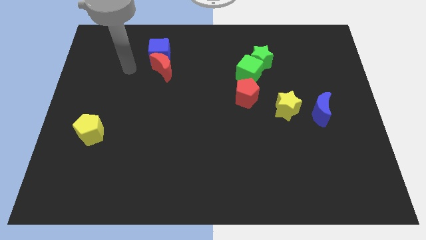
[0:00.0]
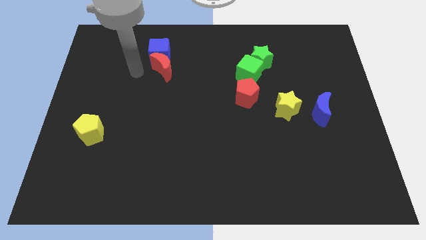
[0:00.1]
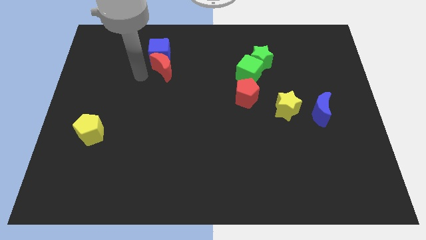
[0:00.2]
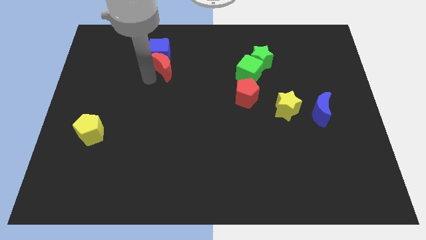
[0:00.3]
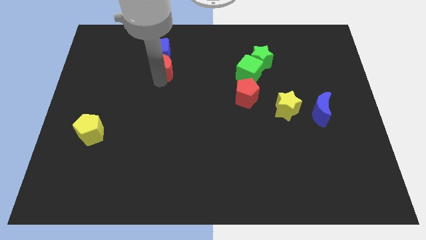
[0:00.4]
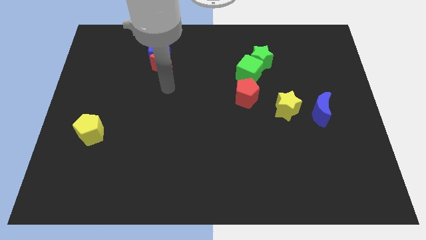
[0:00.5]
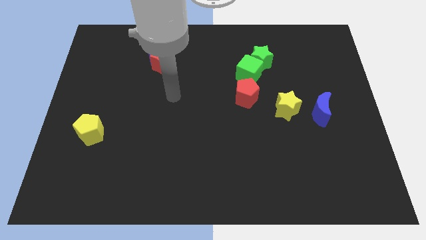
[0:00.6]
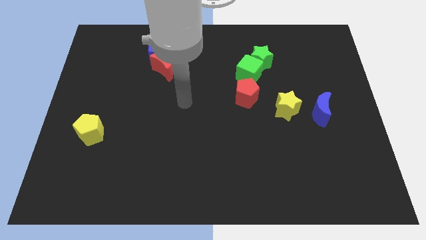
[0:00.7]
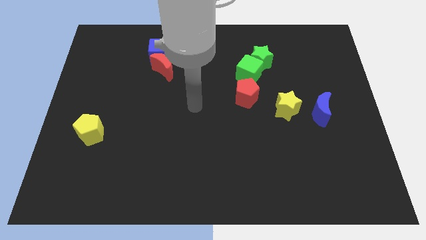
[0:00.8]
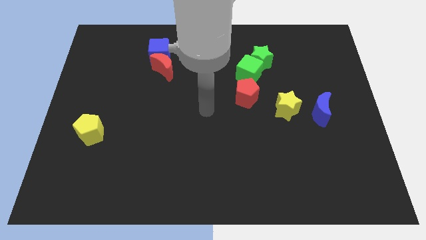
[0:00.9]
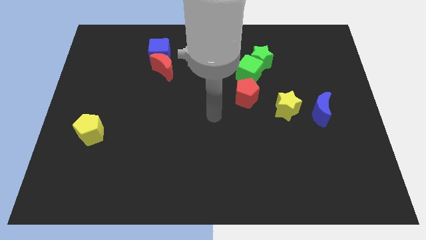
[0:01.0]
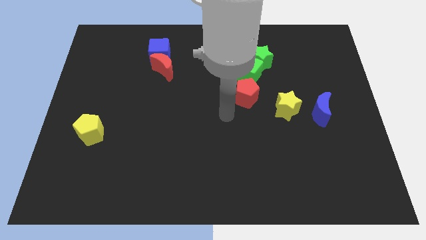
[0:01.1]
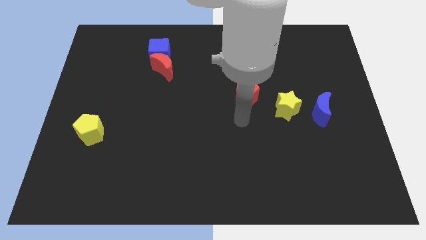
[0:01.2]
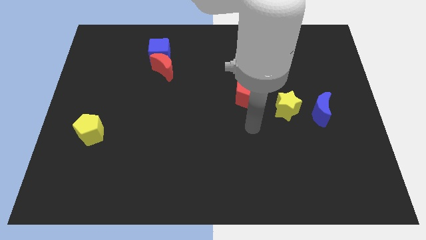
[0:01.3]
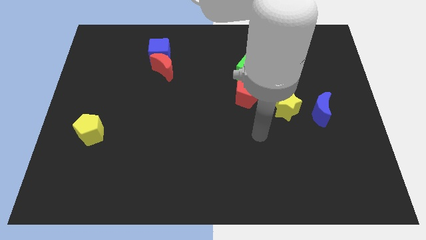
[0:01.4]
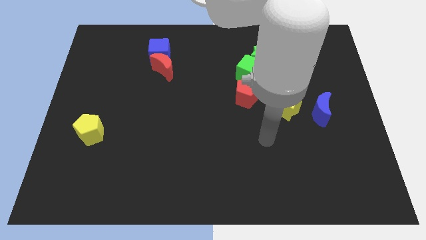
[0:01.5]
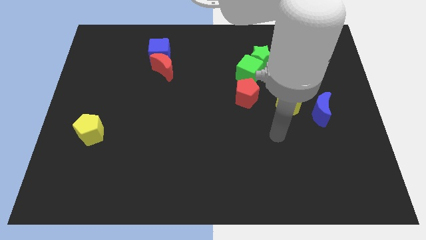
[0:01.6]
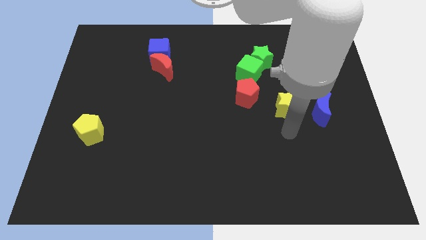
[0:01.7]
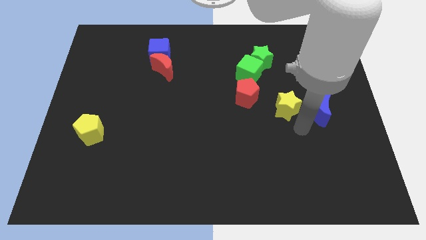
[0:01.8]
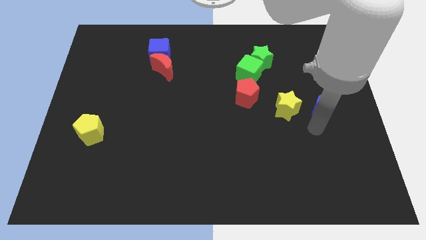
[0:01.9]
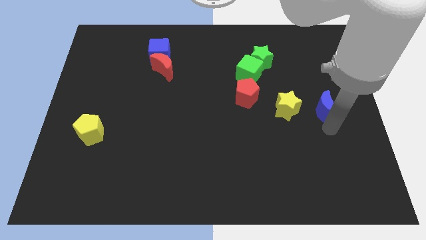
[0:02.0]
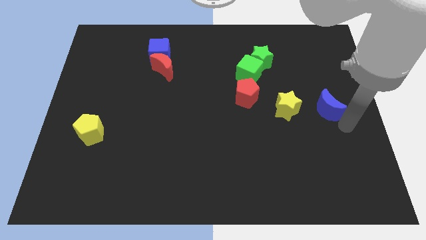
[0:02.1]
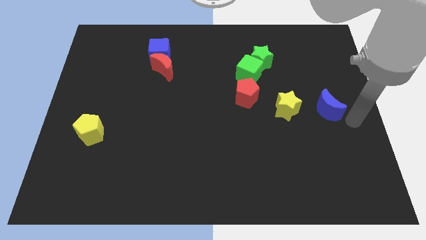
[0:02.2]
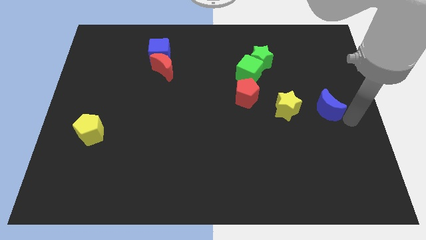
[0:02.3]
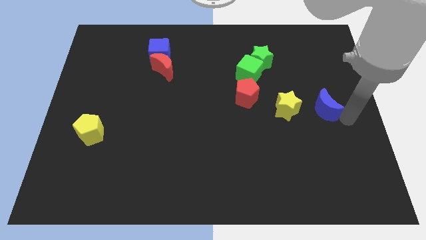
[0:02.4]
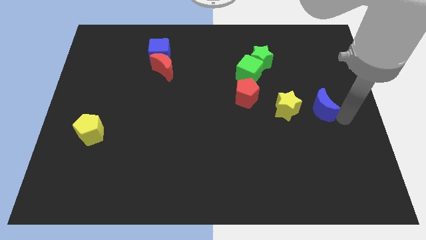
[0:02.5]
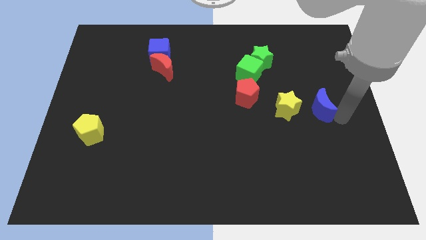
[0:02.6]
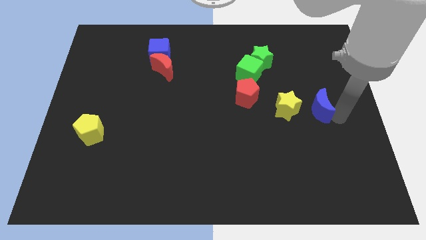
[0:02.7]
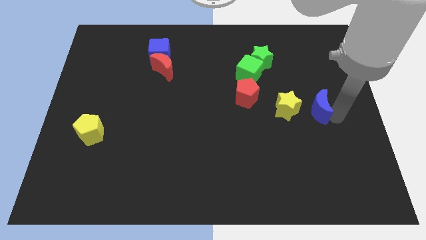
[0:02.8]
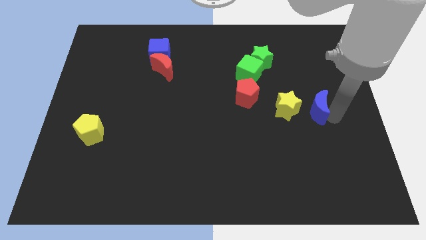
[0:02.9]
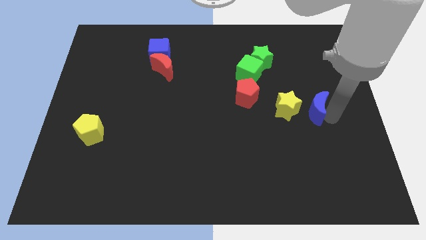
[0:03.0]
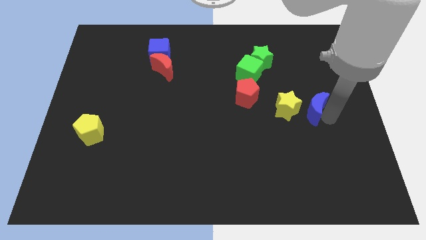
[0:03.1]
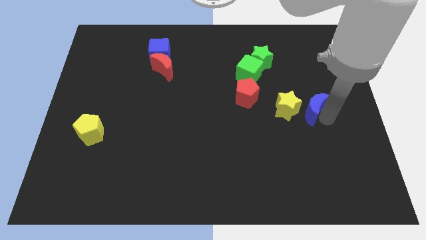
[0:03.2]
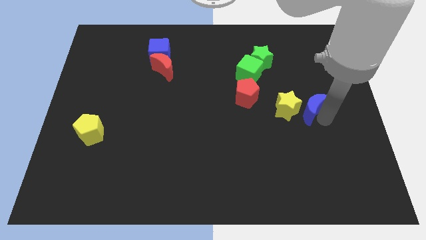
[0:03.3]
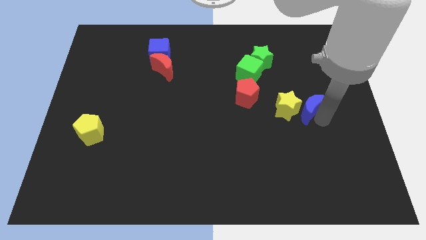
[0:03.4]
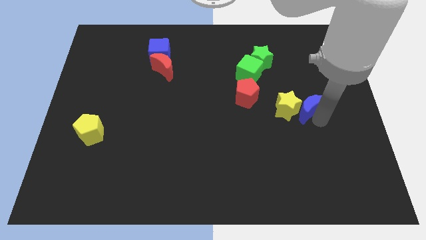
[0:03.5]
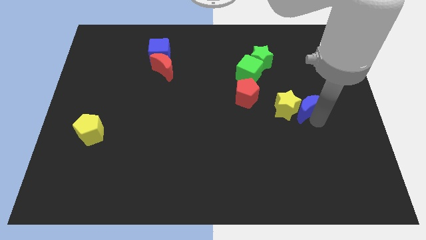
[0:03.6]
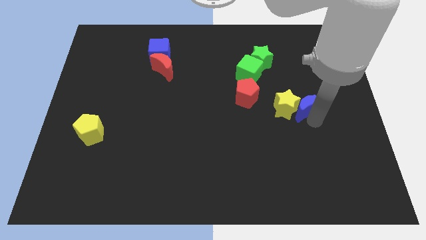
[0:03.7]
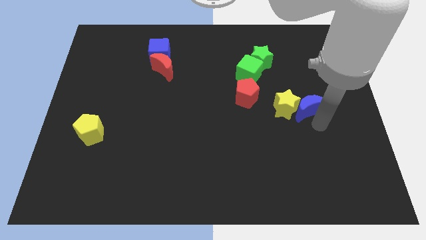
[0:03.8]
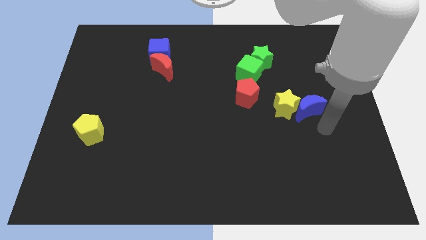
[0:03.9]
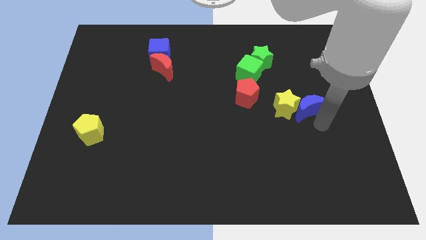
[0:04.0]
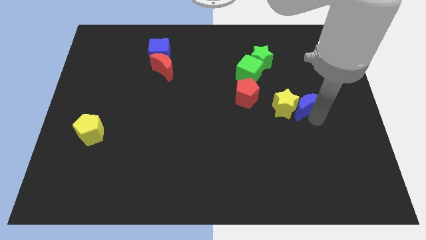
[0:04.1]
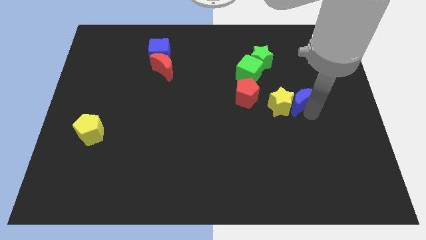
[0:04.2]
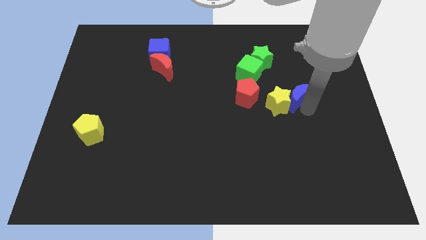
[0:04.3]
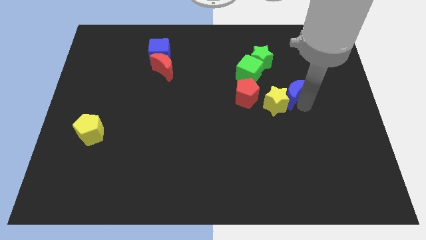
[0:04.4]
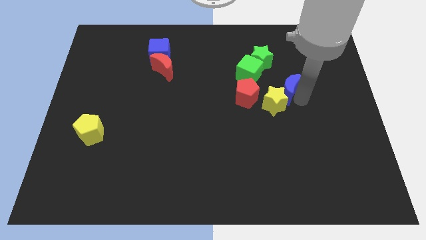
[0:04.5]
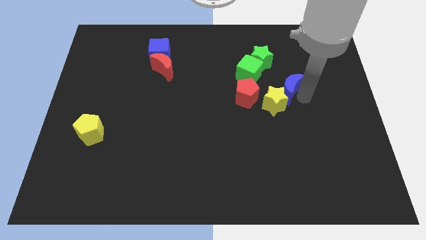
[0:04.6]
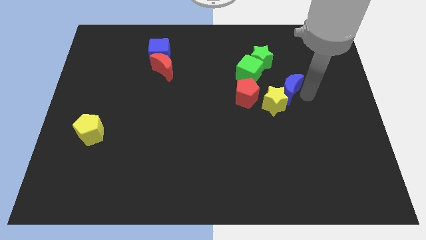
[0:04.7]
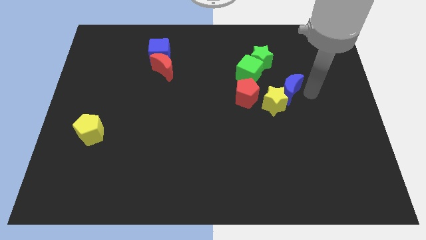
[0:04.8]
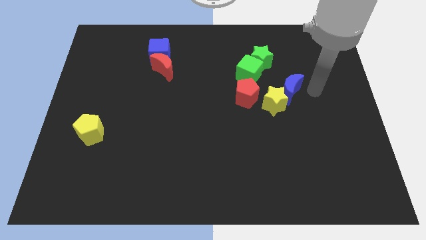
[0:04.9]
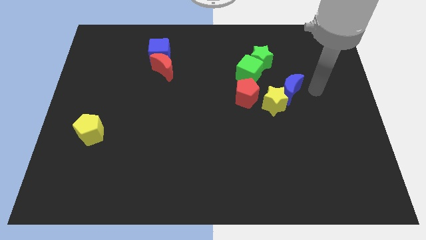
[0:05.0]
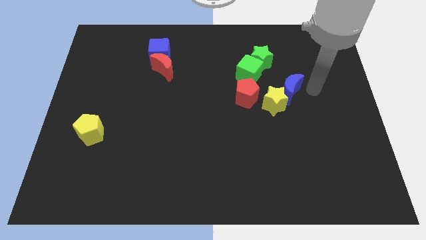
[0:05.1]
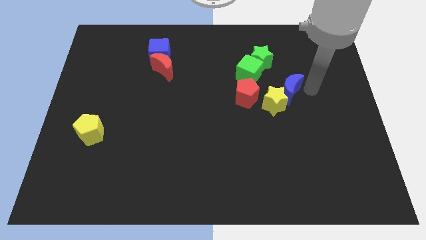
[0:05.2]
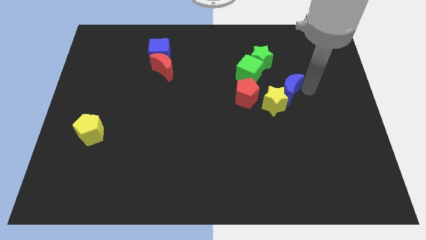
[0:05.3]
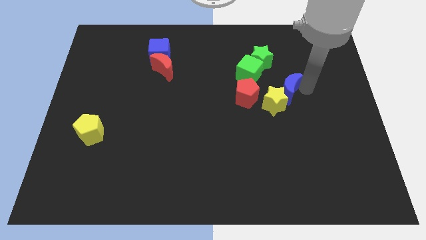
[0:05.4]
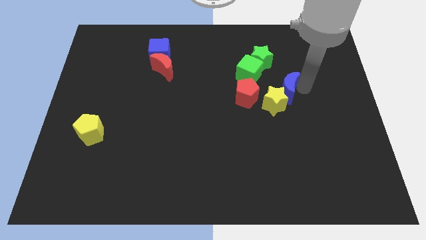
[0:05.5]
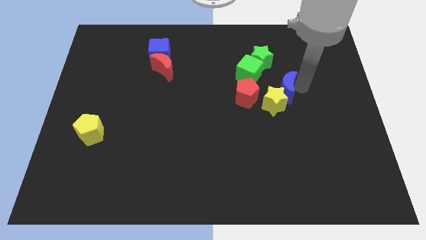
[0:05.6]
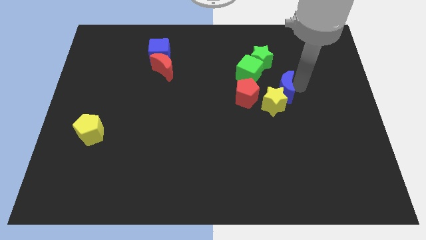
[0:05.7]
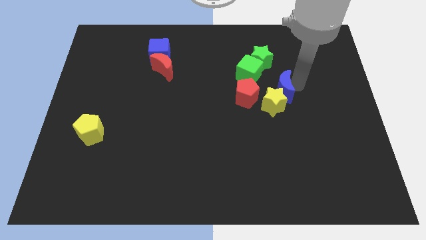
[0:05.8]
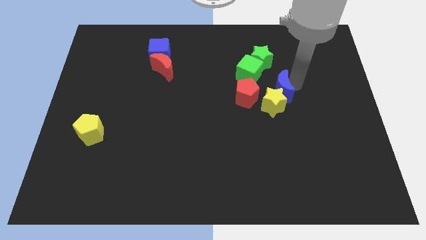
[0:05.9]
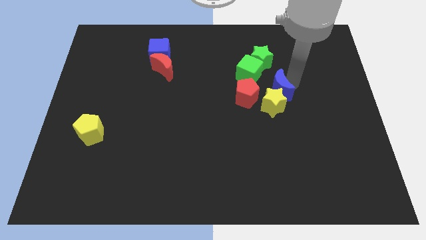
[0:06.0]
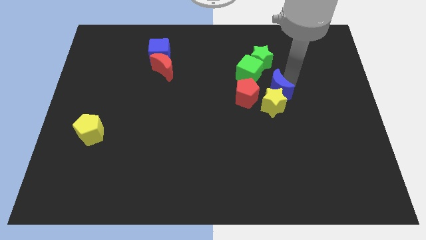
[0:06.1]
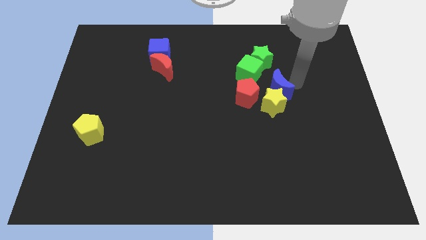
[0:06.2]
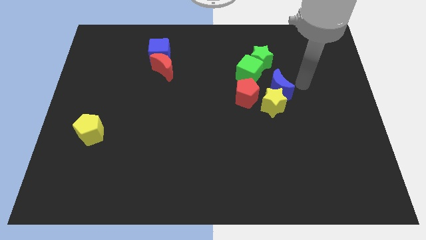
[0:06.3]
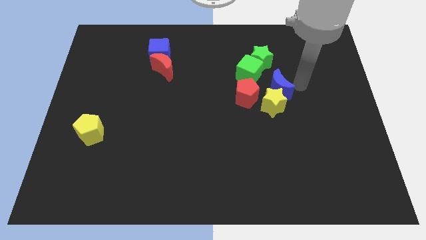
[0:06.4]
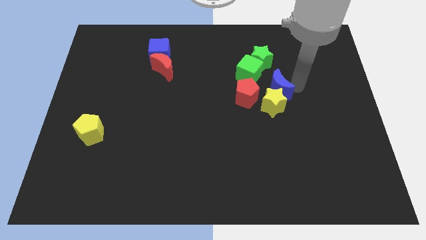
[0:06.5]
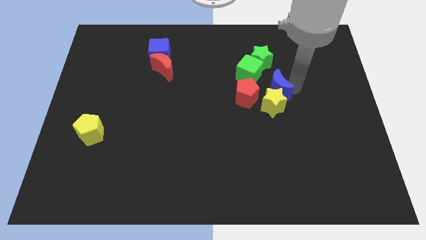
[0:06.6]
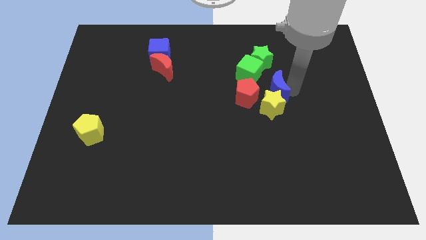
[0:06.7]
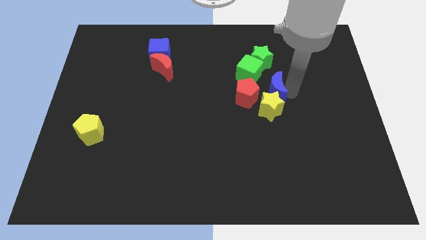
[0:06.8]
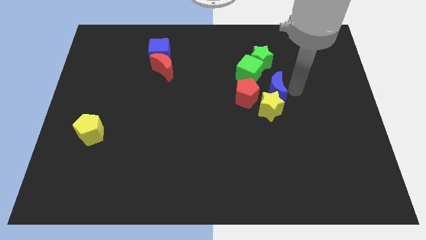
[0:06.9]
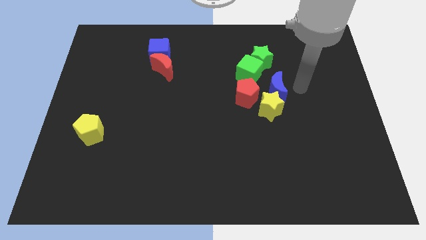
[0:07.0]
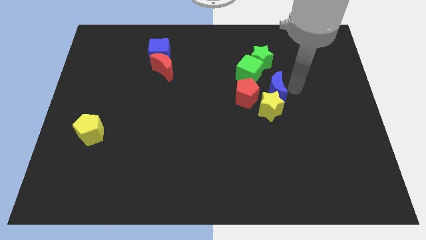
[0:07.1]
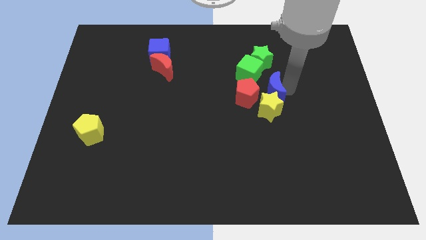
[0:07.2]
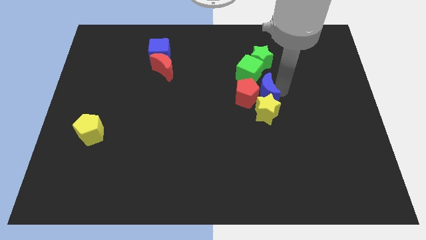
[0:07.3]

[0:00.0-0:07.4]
slide the blue moon towards the red pentagon
